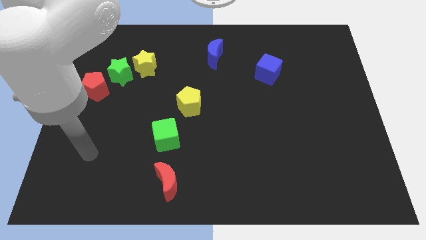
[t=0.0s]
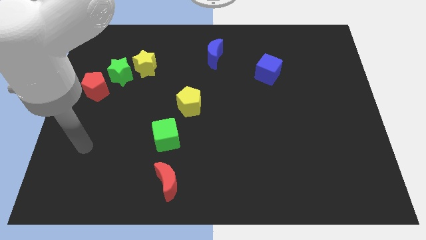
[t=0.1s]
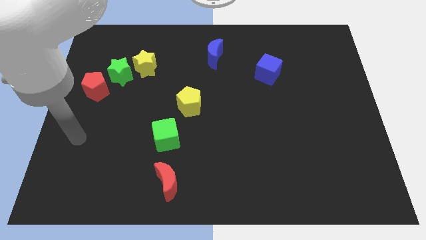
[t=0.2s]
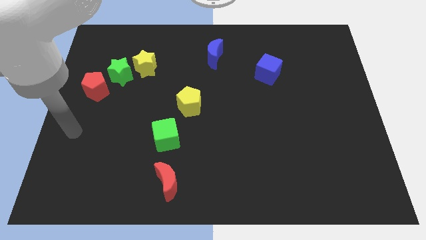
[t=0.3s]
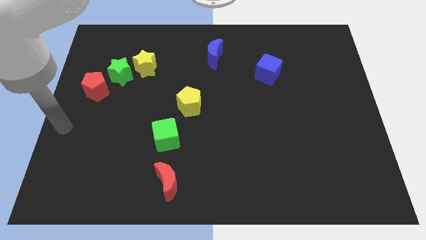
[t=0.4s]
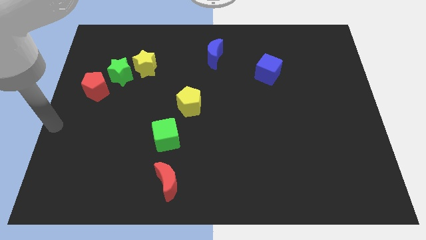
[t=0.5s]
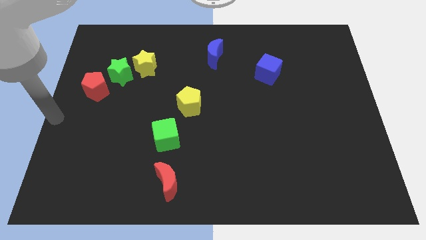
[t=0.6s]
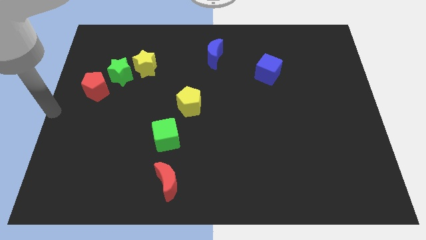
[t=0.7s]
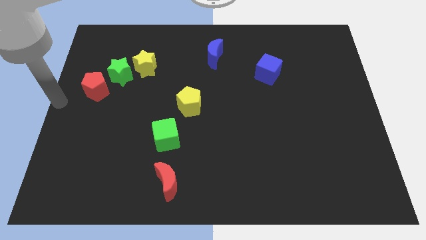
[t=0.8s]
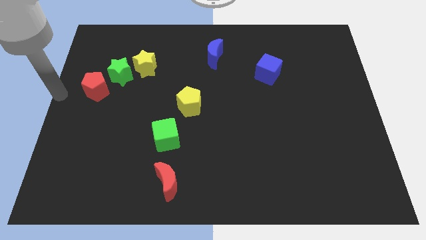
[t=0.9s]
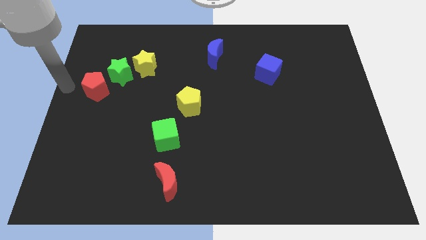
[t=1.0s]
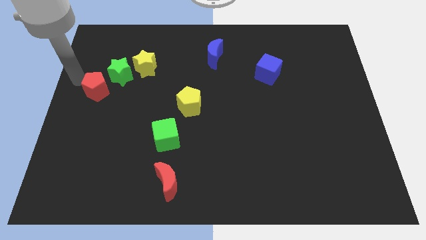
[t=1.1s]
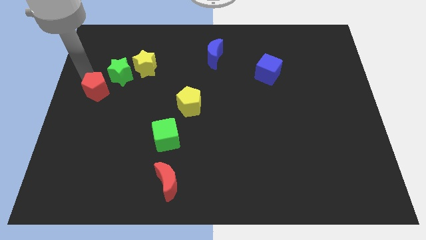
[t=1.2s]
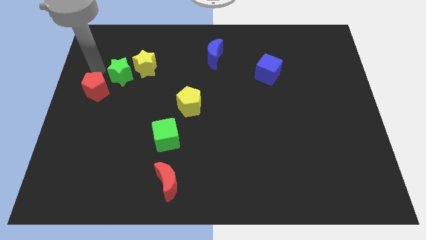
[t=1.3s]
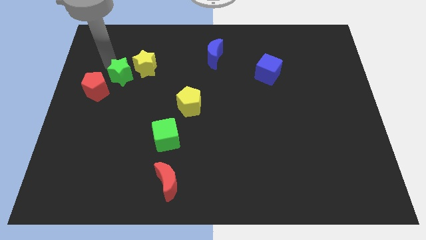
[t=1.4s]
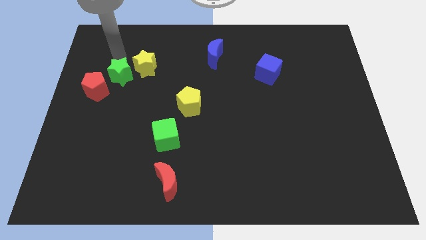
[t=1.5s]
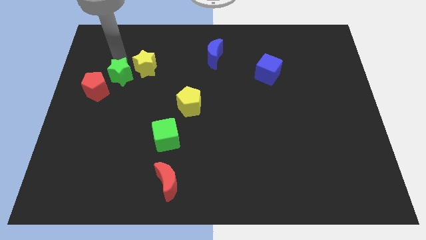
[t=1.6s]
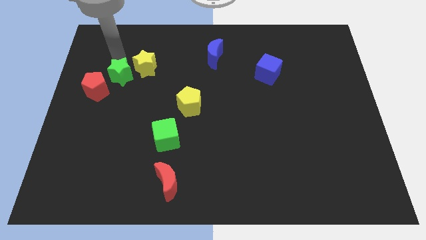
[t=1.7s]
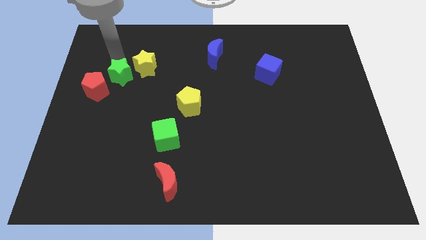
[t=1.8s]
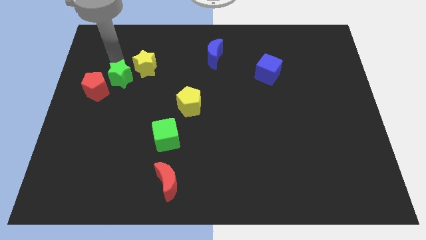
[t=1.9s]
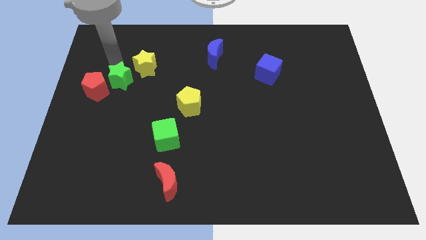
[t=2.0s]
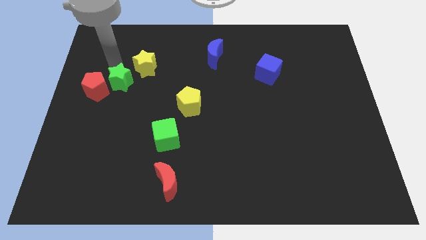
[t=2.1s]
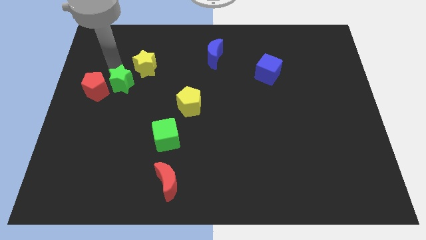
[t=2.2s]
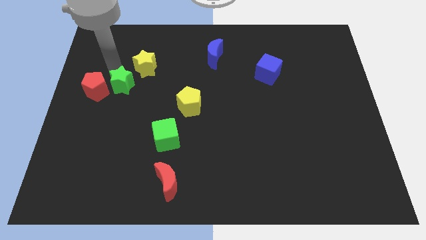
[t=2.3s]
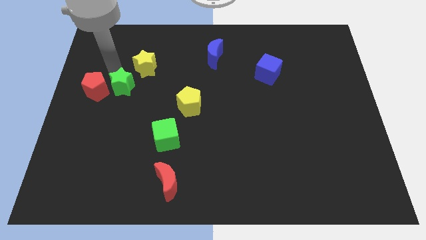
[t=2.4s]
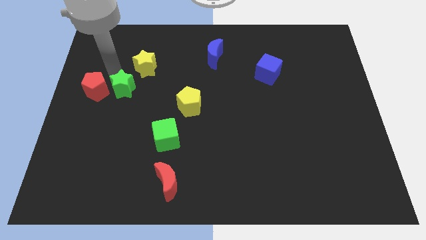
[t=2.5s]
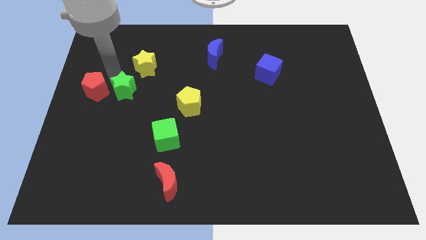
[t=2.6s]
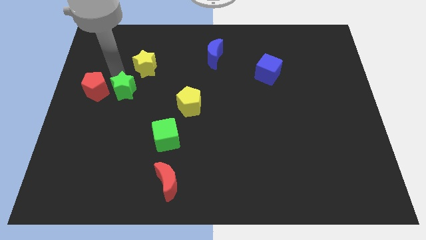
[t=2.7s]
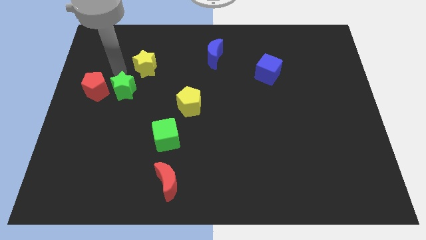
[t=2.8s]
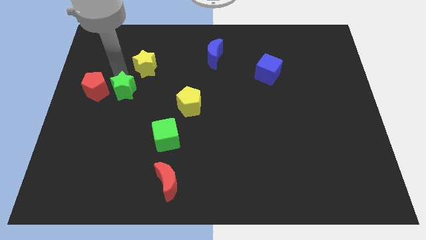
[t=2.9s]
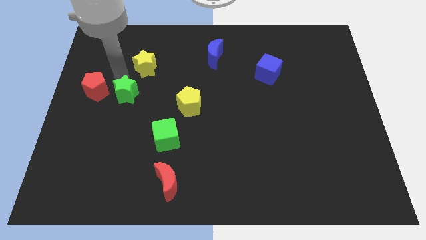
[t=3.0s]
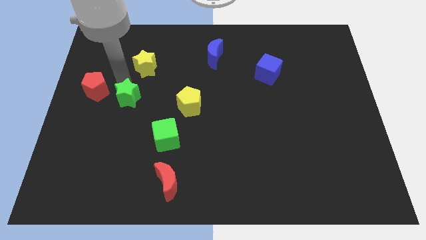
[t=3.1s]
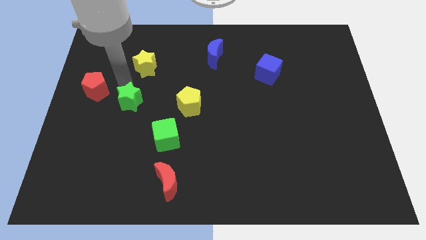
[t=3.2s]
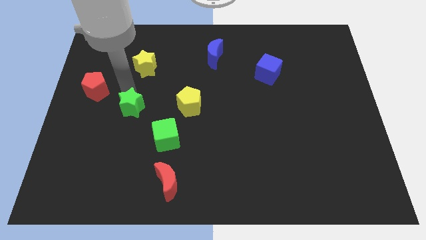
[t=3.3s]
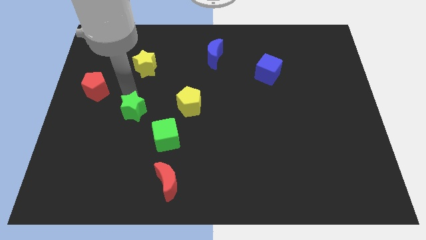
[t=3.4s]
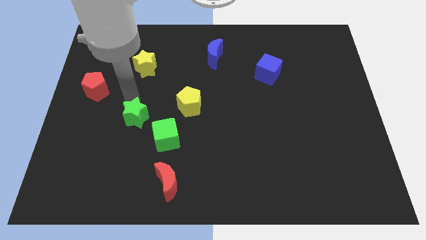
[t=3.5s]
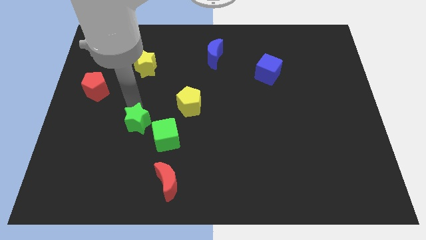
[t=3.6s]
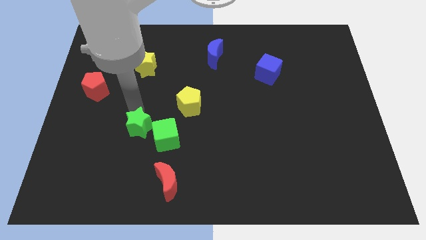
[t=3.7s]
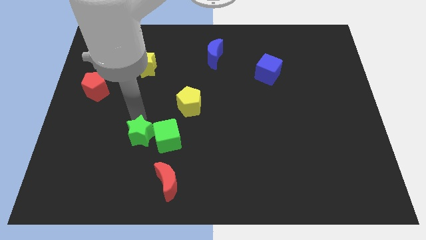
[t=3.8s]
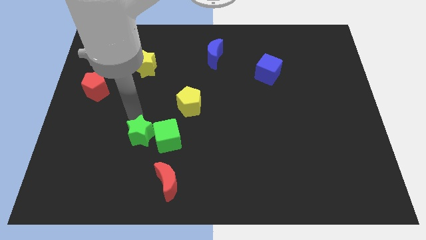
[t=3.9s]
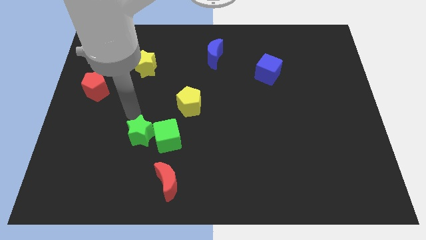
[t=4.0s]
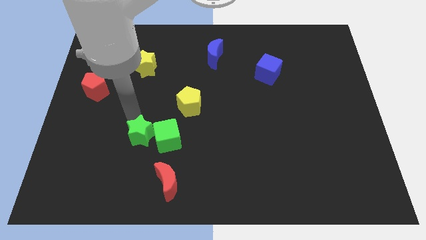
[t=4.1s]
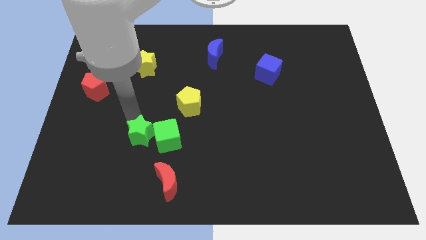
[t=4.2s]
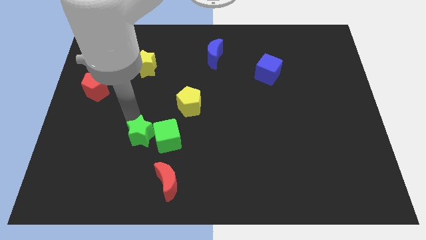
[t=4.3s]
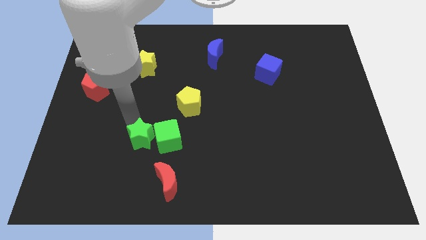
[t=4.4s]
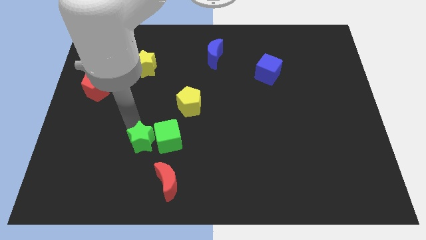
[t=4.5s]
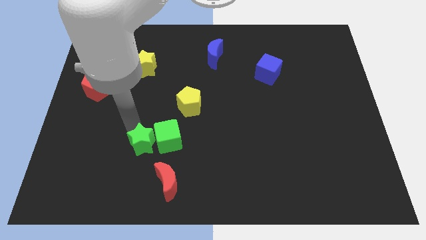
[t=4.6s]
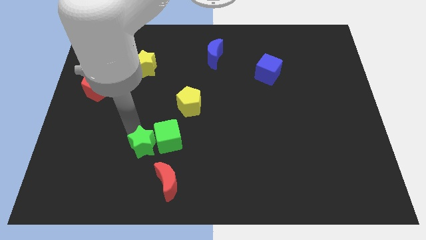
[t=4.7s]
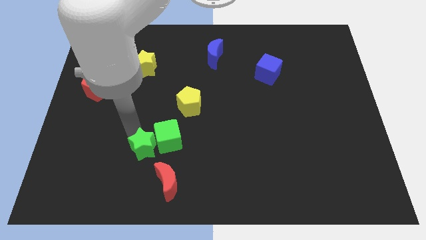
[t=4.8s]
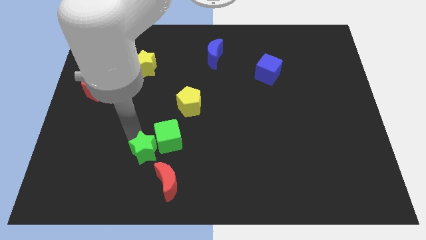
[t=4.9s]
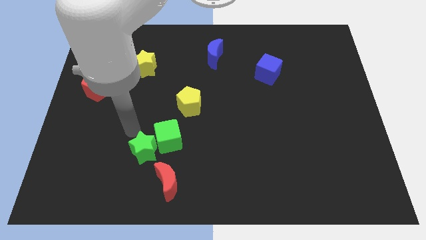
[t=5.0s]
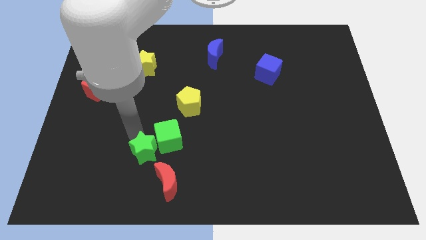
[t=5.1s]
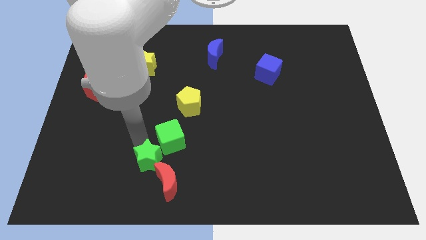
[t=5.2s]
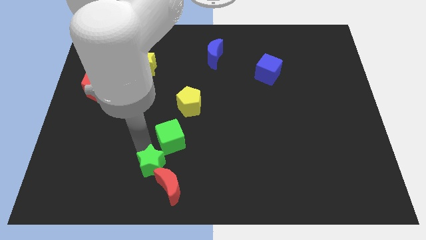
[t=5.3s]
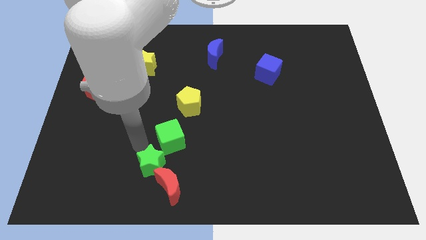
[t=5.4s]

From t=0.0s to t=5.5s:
slide the green star towards the red moon

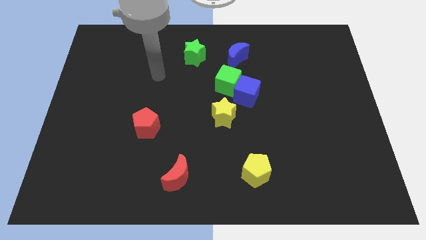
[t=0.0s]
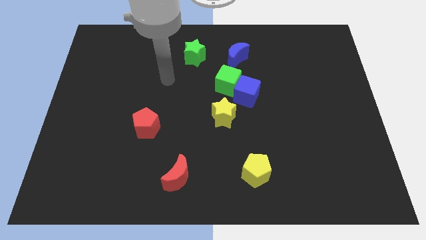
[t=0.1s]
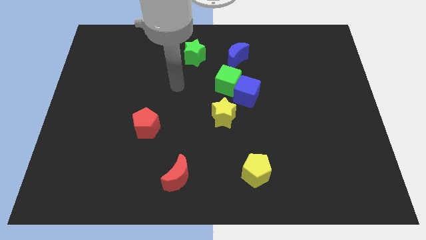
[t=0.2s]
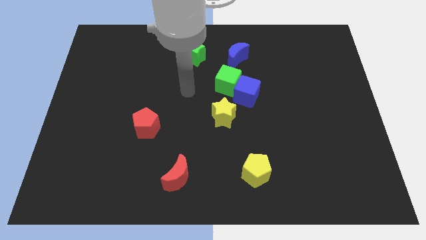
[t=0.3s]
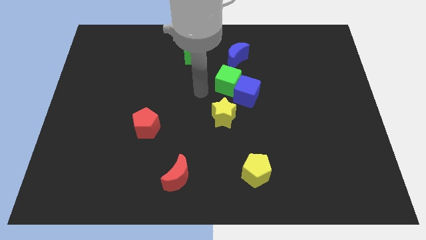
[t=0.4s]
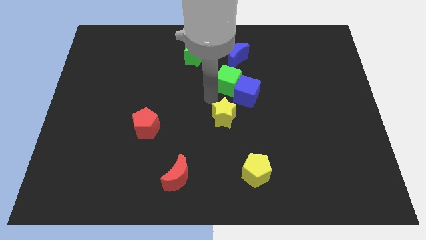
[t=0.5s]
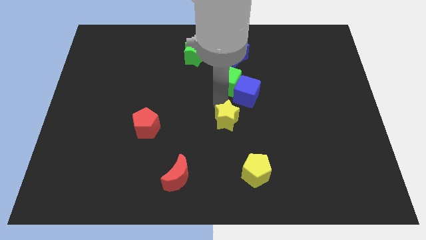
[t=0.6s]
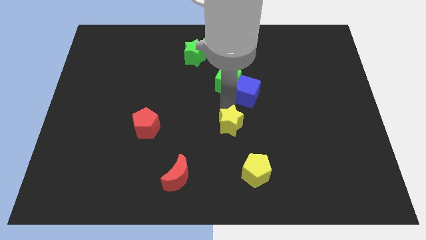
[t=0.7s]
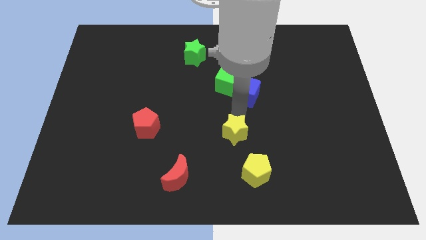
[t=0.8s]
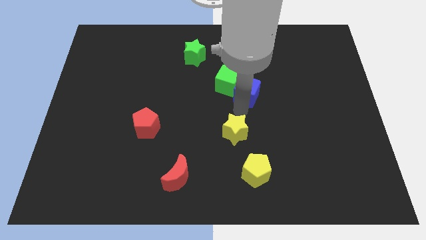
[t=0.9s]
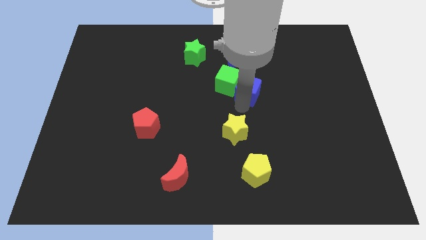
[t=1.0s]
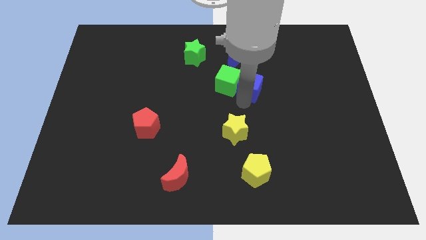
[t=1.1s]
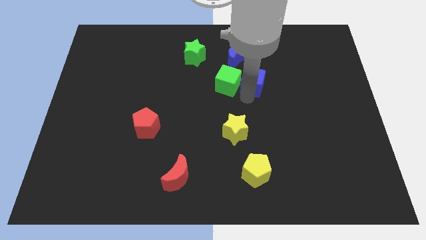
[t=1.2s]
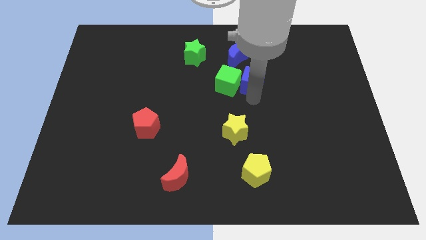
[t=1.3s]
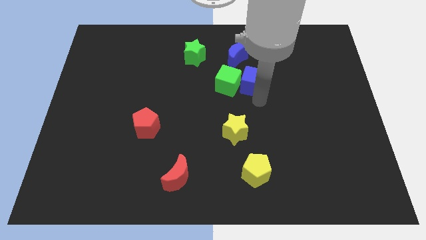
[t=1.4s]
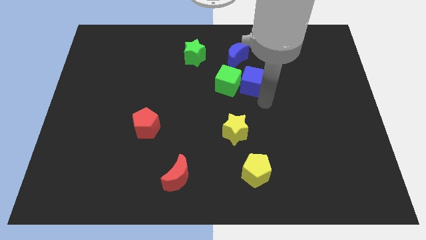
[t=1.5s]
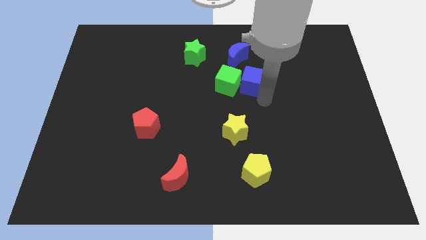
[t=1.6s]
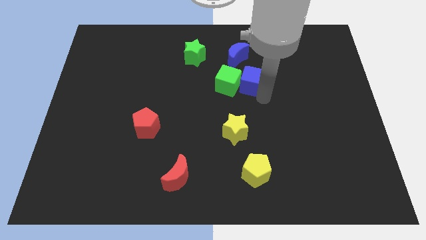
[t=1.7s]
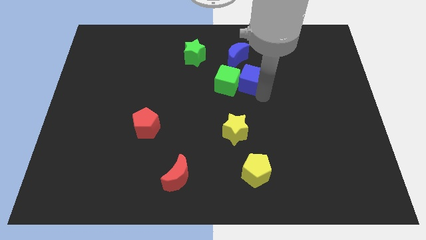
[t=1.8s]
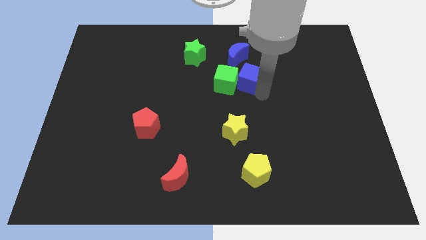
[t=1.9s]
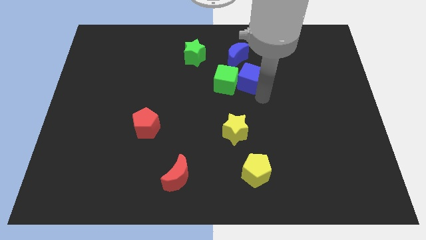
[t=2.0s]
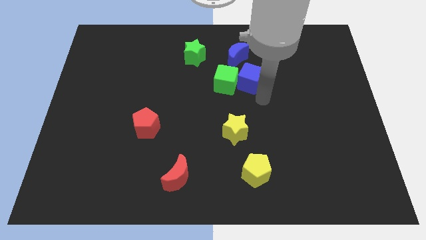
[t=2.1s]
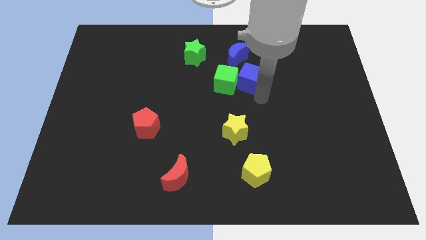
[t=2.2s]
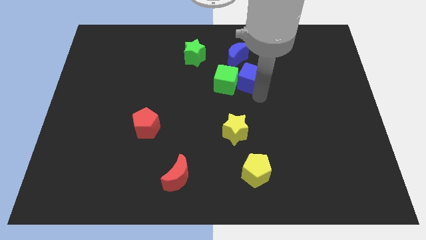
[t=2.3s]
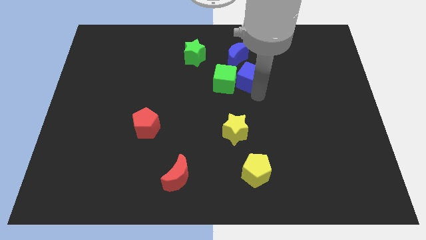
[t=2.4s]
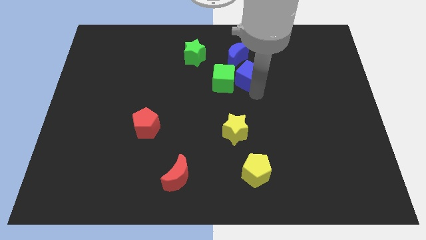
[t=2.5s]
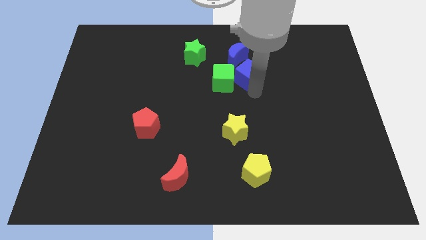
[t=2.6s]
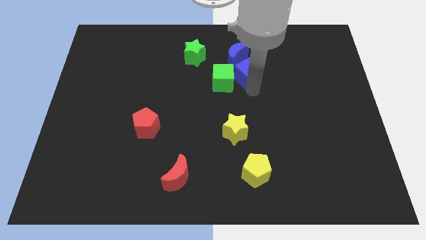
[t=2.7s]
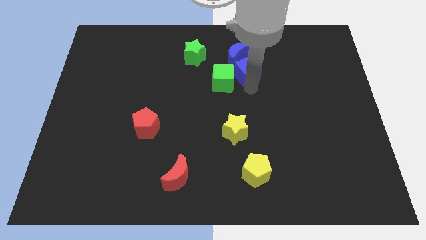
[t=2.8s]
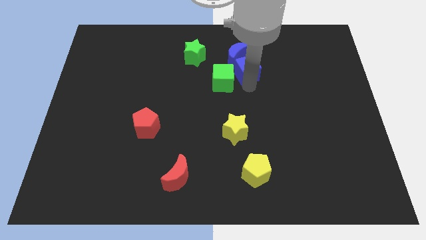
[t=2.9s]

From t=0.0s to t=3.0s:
move the blue cube towards the blue moon

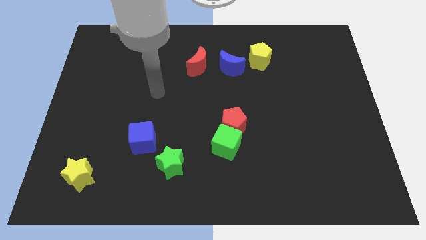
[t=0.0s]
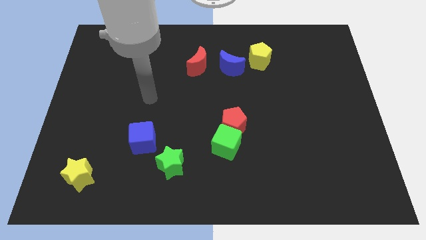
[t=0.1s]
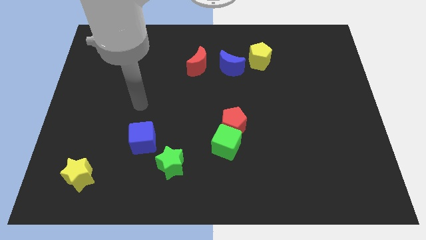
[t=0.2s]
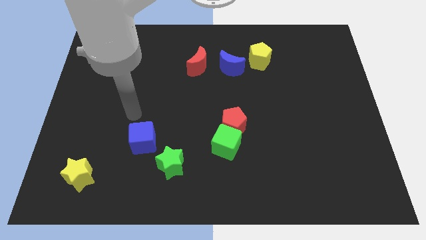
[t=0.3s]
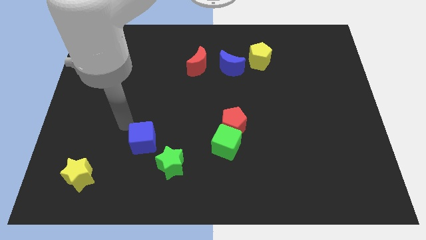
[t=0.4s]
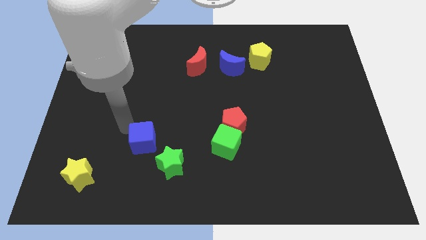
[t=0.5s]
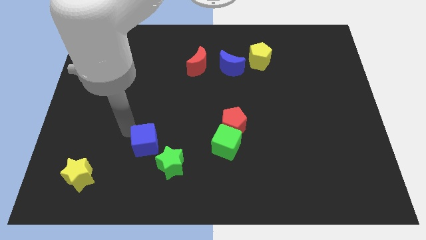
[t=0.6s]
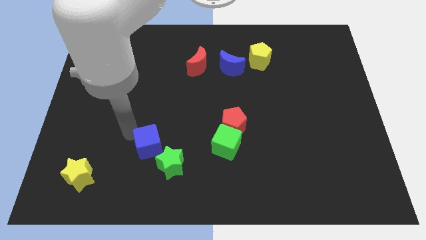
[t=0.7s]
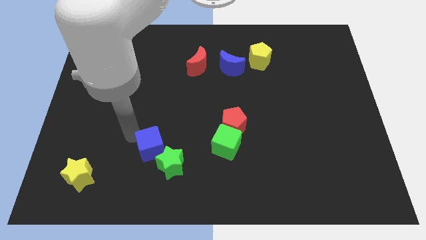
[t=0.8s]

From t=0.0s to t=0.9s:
put the blue cube to the green star
